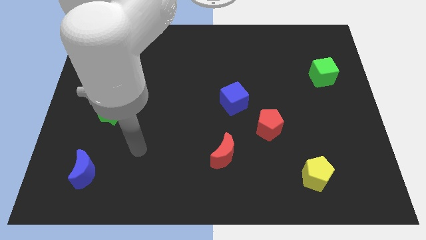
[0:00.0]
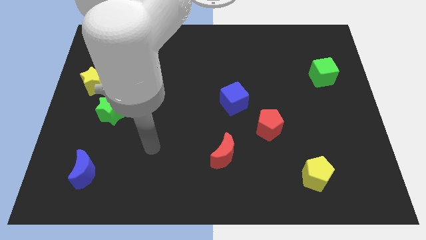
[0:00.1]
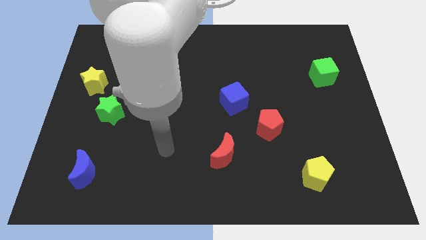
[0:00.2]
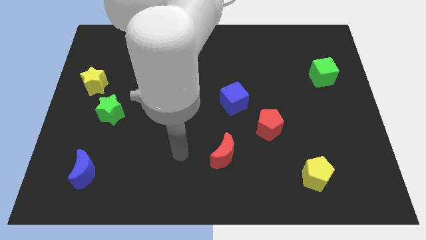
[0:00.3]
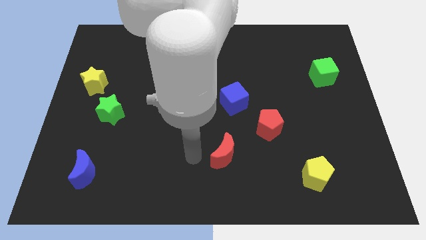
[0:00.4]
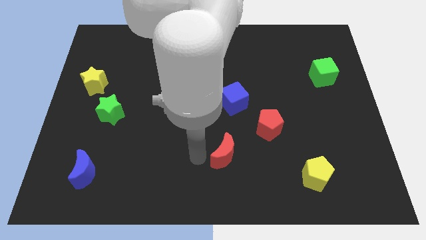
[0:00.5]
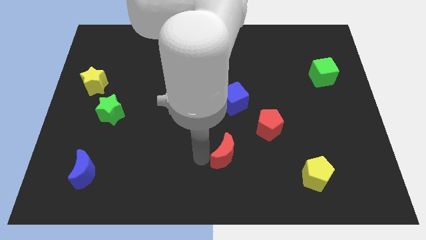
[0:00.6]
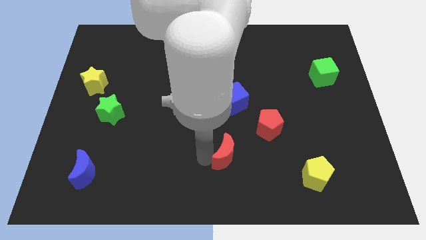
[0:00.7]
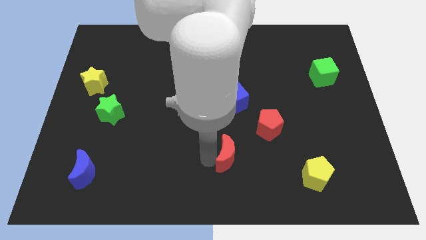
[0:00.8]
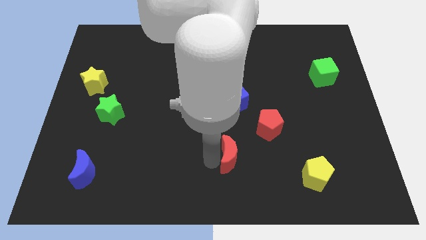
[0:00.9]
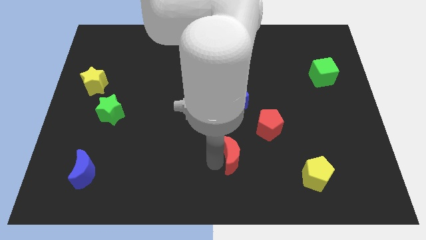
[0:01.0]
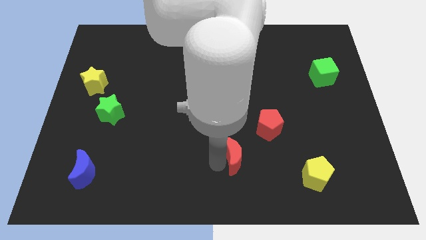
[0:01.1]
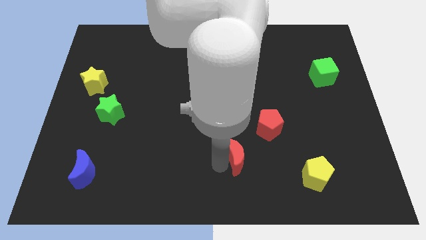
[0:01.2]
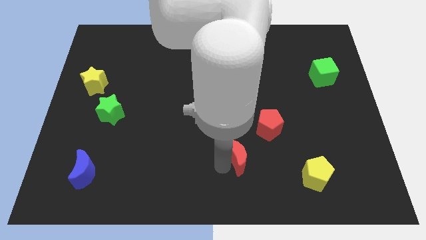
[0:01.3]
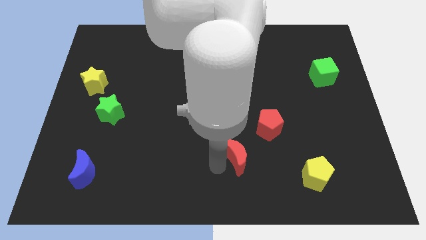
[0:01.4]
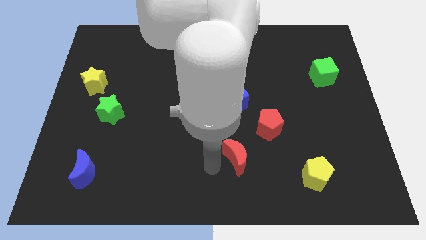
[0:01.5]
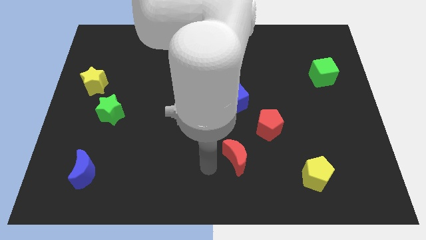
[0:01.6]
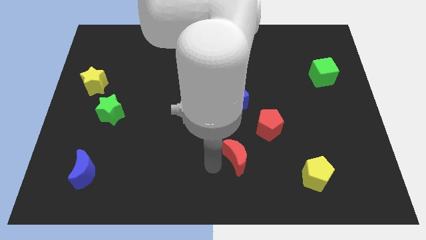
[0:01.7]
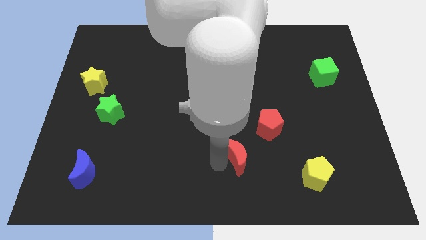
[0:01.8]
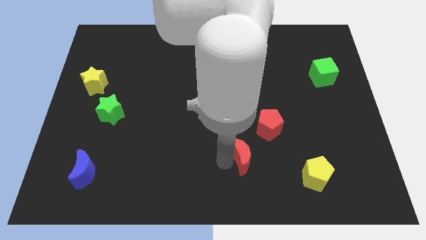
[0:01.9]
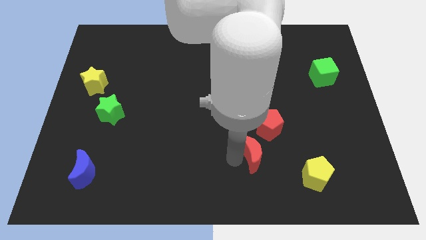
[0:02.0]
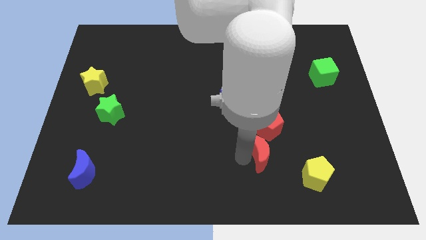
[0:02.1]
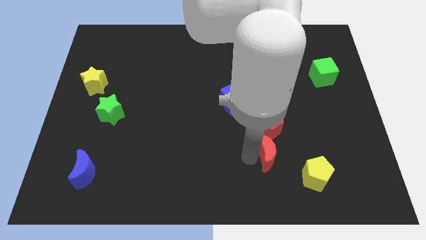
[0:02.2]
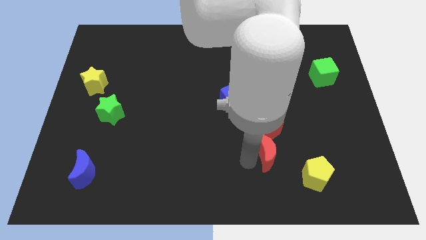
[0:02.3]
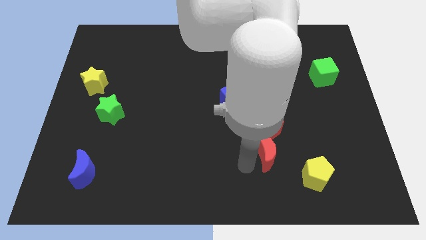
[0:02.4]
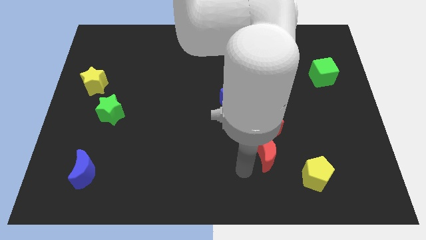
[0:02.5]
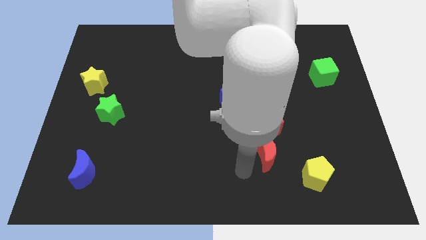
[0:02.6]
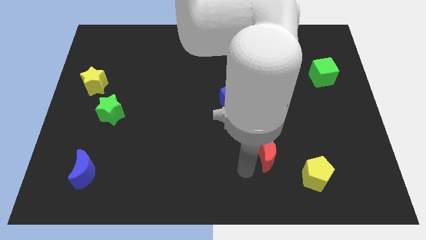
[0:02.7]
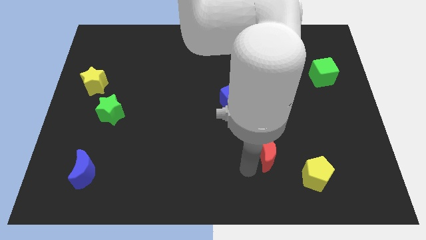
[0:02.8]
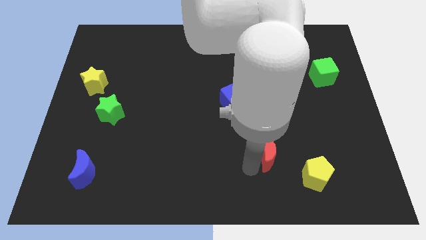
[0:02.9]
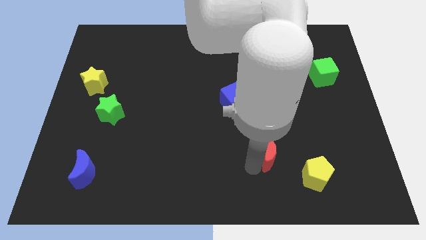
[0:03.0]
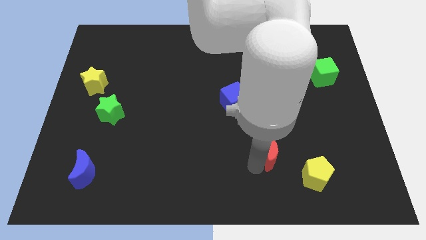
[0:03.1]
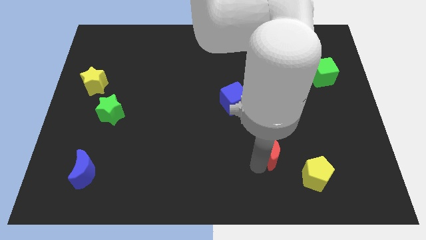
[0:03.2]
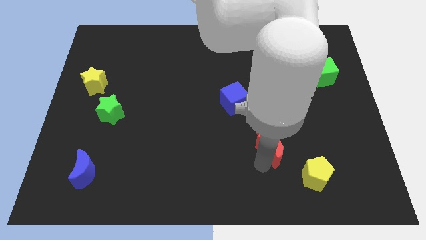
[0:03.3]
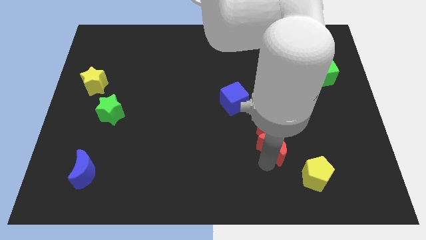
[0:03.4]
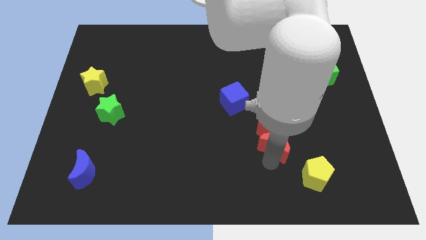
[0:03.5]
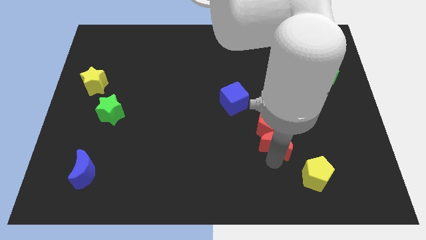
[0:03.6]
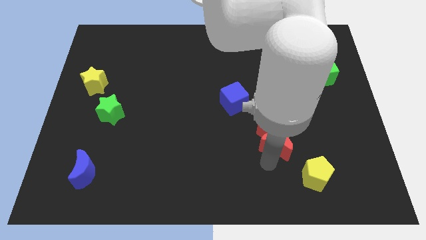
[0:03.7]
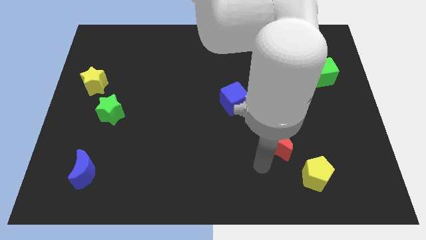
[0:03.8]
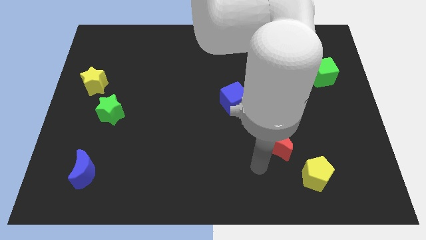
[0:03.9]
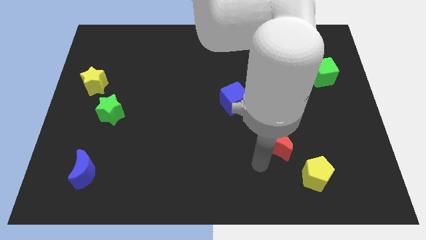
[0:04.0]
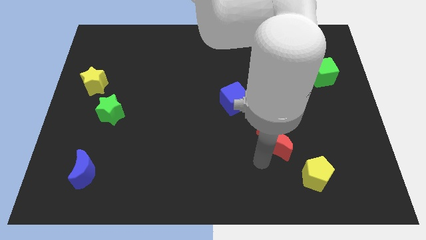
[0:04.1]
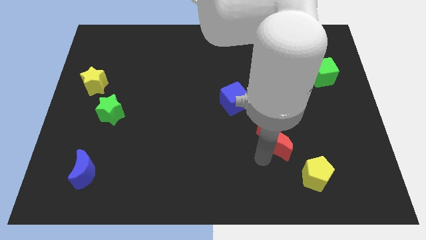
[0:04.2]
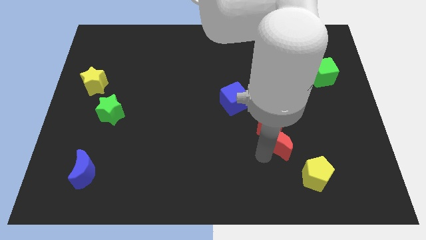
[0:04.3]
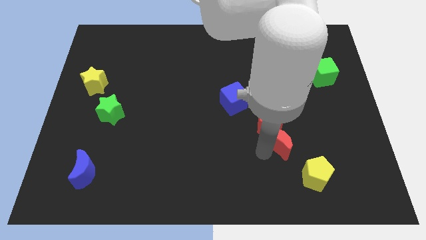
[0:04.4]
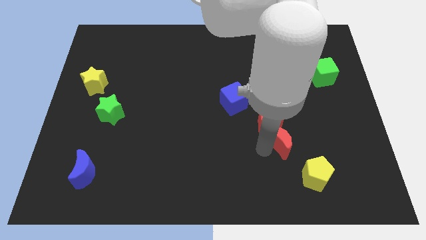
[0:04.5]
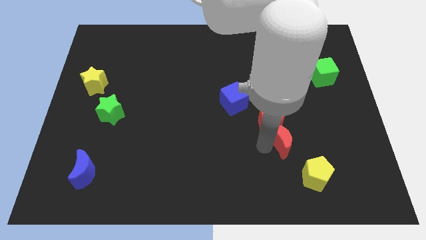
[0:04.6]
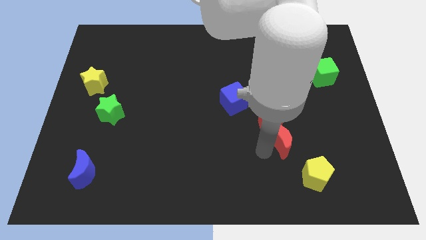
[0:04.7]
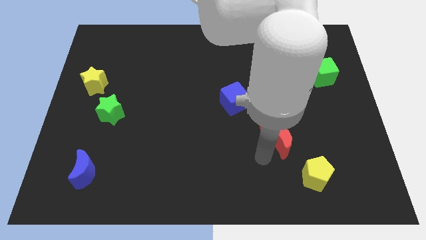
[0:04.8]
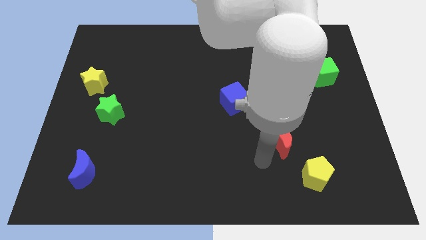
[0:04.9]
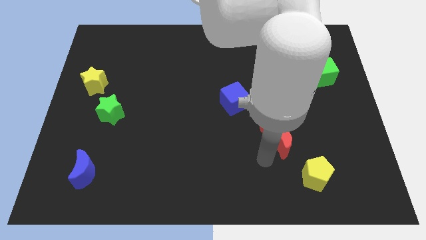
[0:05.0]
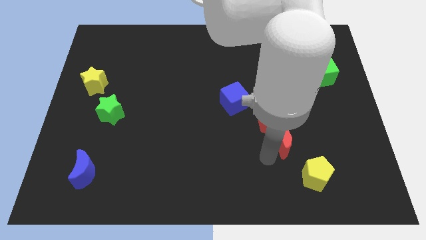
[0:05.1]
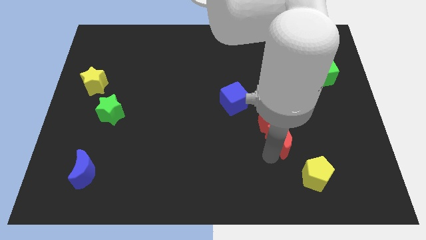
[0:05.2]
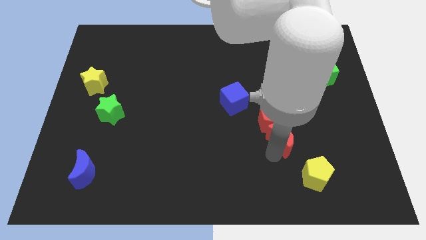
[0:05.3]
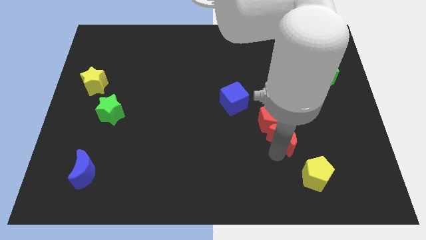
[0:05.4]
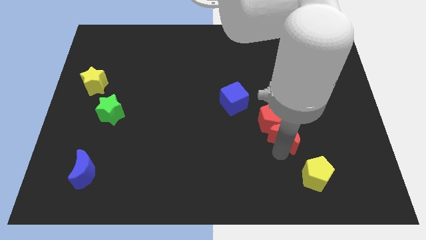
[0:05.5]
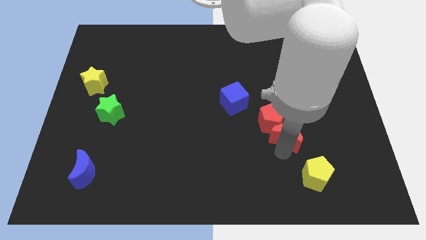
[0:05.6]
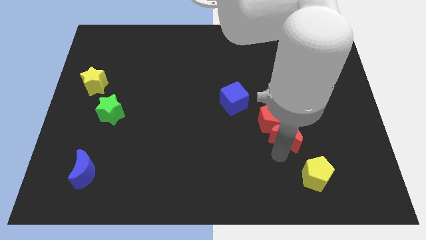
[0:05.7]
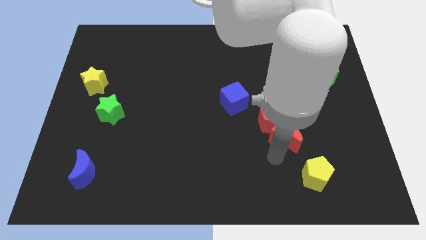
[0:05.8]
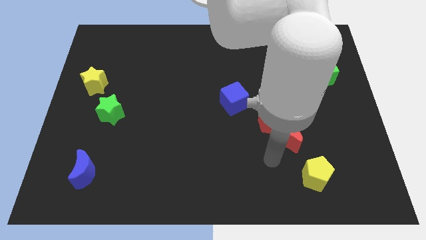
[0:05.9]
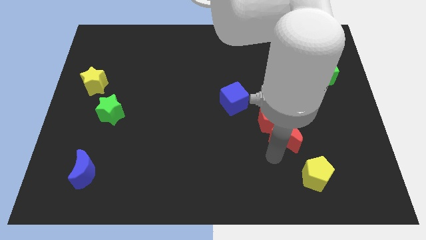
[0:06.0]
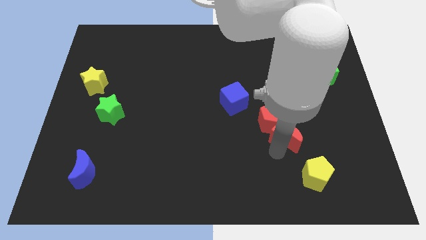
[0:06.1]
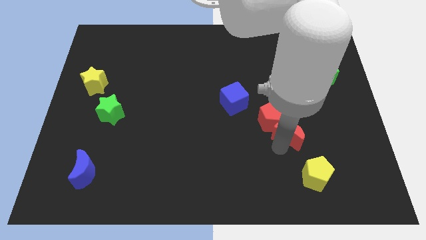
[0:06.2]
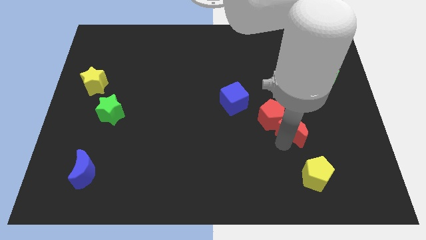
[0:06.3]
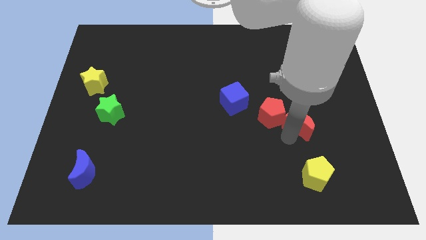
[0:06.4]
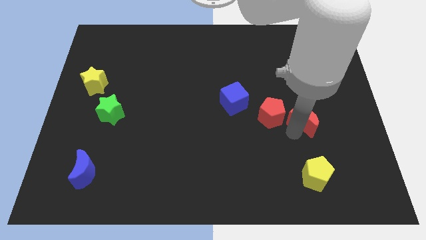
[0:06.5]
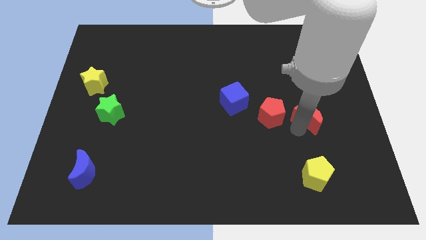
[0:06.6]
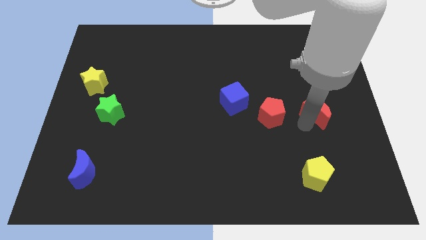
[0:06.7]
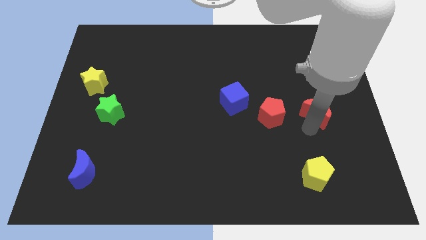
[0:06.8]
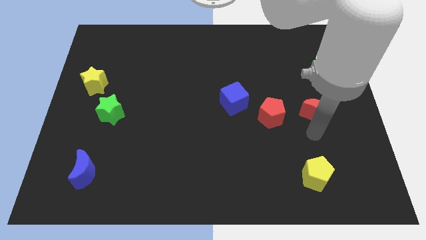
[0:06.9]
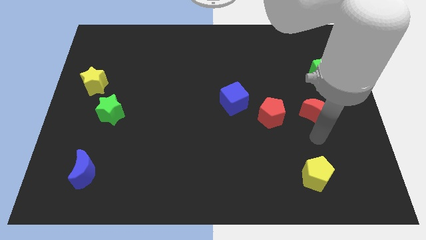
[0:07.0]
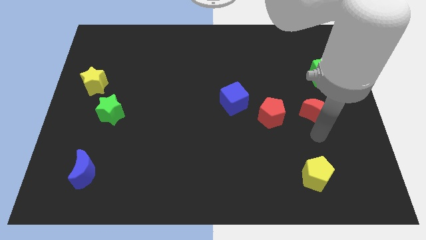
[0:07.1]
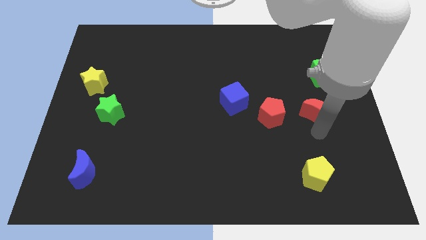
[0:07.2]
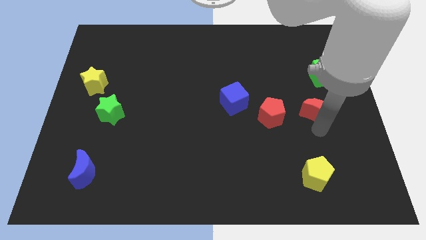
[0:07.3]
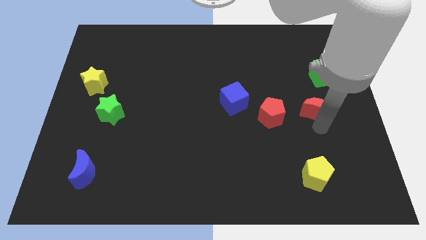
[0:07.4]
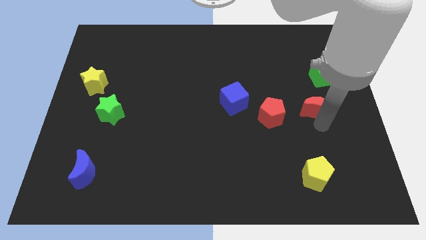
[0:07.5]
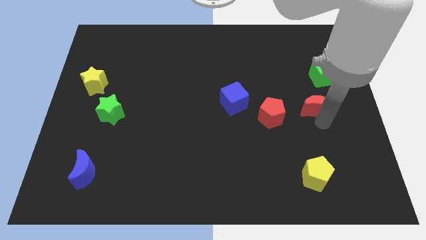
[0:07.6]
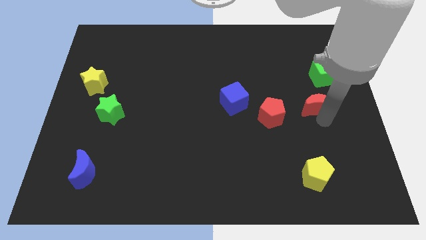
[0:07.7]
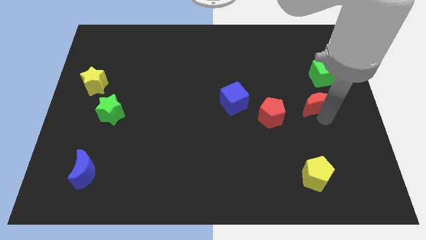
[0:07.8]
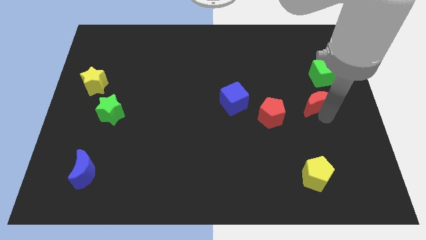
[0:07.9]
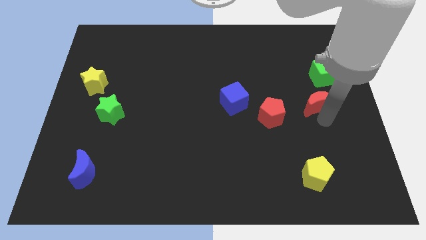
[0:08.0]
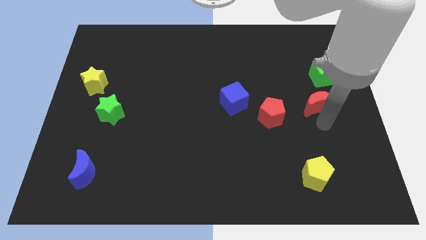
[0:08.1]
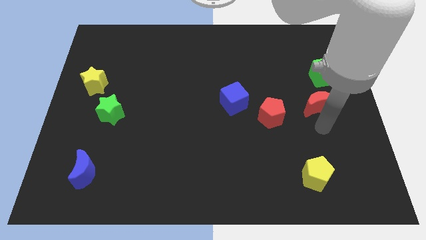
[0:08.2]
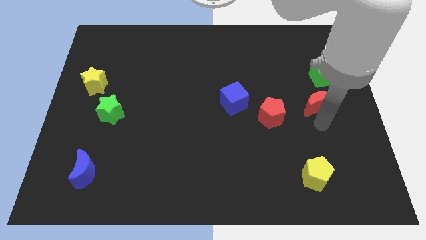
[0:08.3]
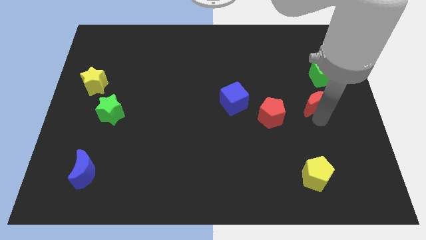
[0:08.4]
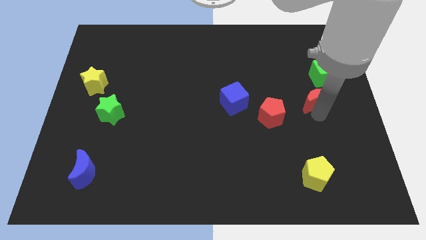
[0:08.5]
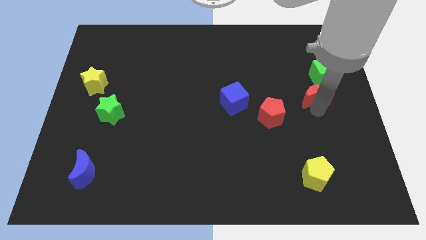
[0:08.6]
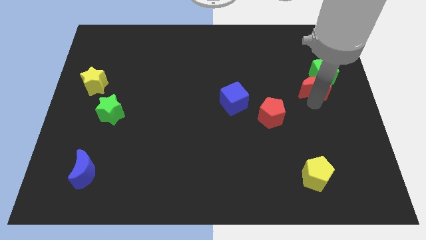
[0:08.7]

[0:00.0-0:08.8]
put the red moon close to the green cube
